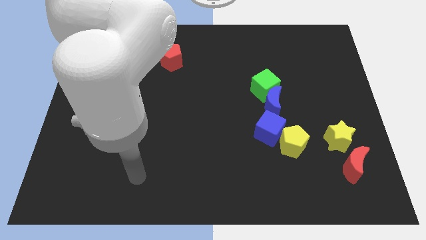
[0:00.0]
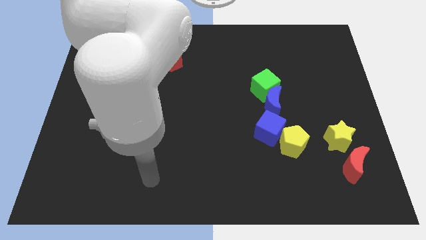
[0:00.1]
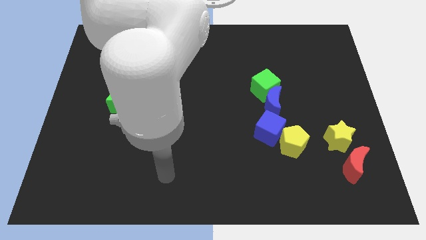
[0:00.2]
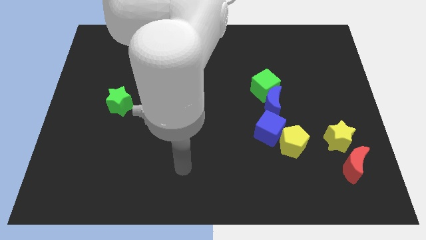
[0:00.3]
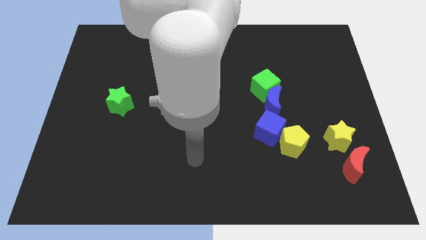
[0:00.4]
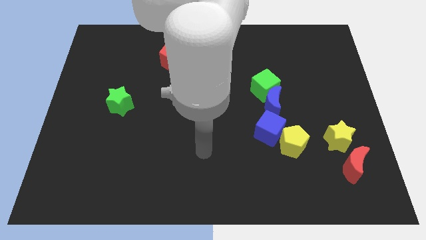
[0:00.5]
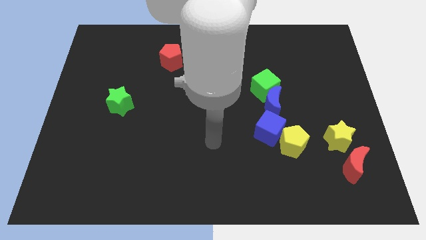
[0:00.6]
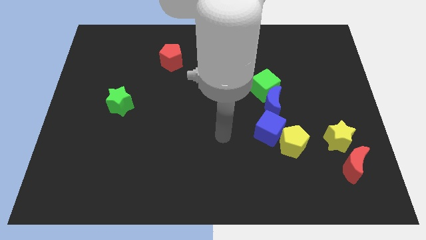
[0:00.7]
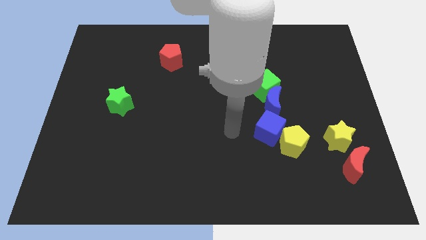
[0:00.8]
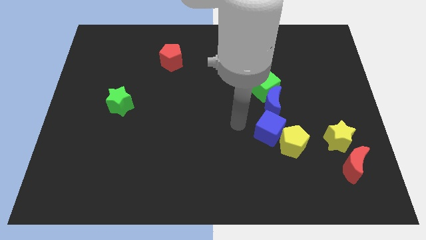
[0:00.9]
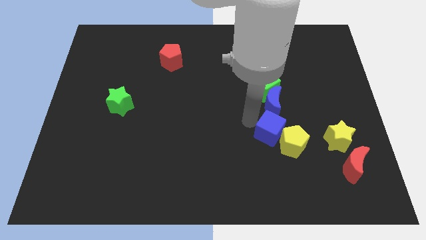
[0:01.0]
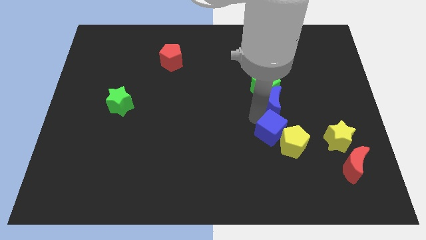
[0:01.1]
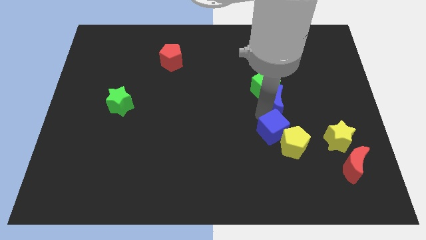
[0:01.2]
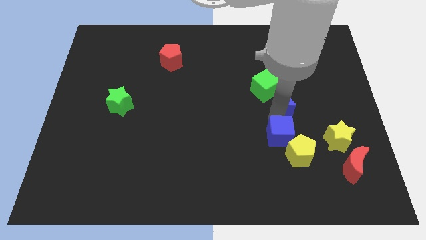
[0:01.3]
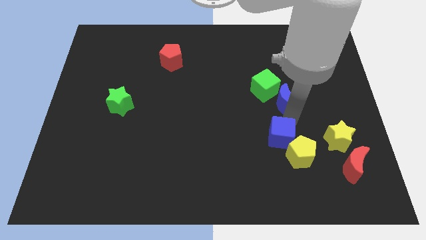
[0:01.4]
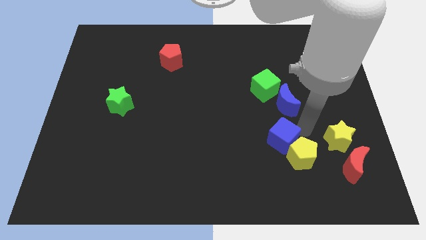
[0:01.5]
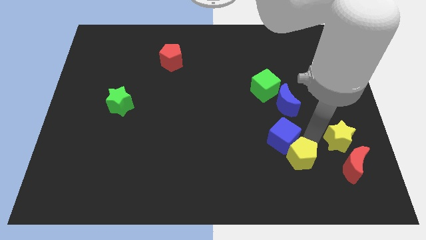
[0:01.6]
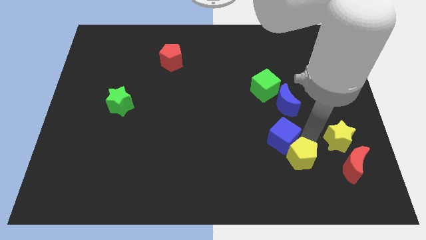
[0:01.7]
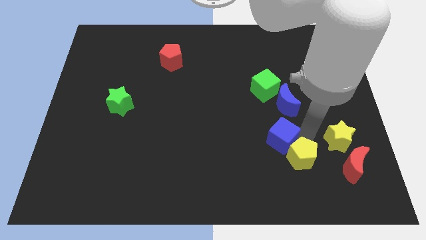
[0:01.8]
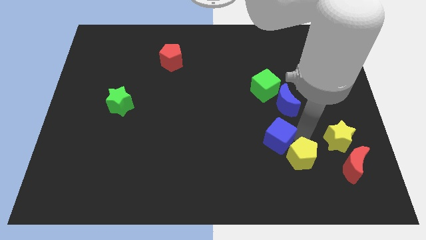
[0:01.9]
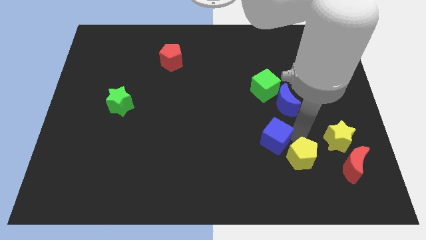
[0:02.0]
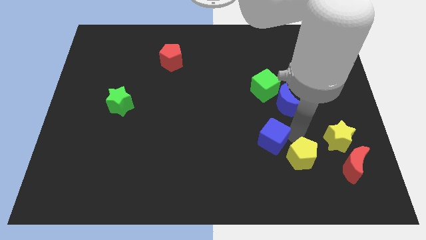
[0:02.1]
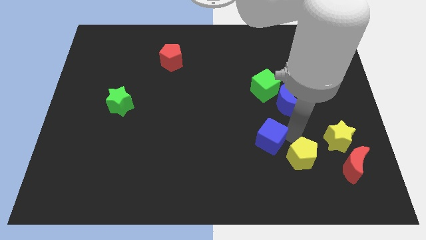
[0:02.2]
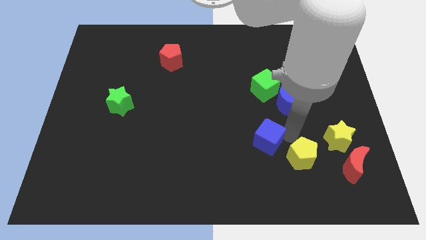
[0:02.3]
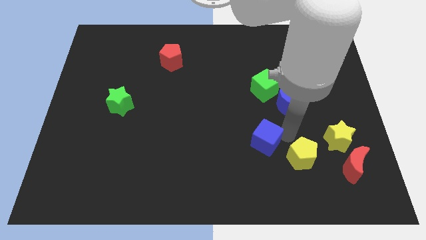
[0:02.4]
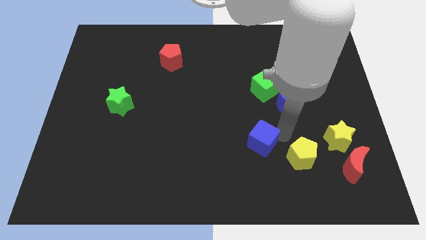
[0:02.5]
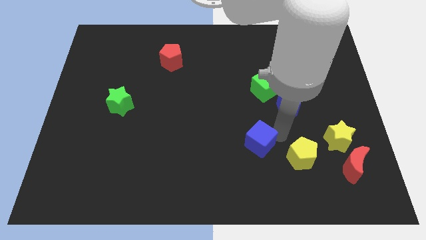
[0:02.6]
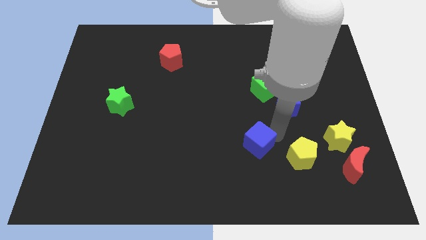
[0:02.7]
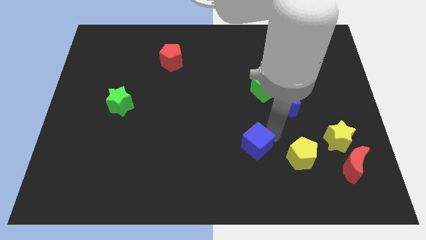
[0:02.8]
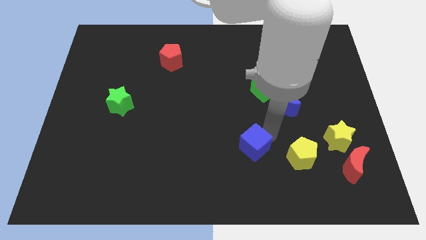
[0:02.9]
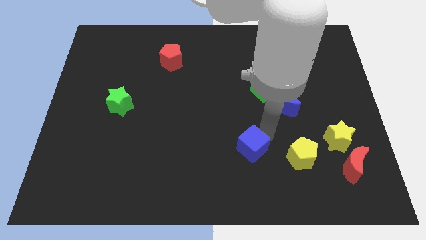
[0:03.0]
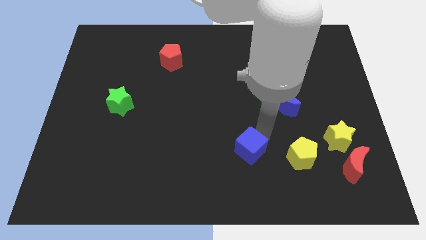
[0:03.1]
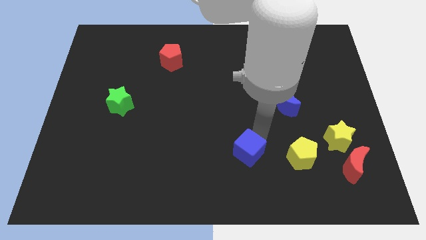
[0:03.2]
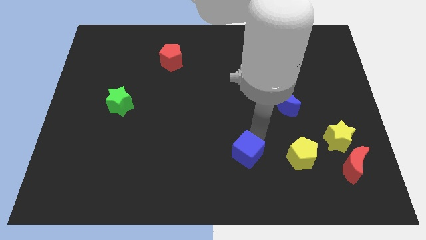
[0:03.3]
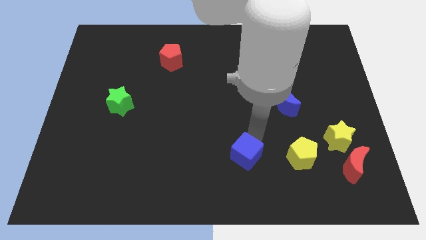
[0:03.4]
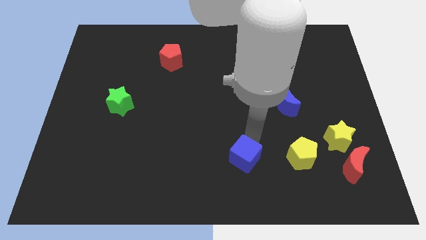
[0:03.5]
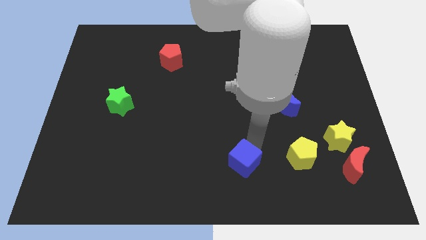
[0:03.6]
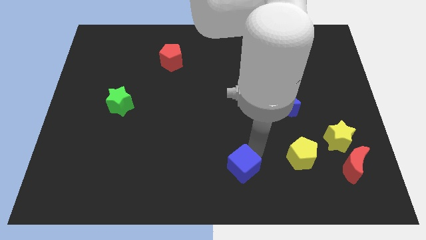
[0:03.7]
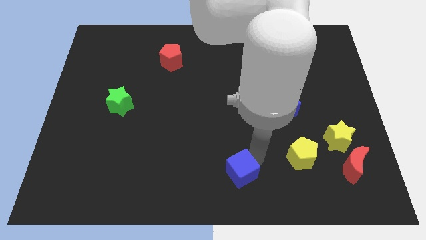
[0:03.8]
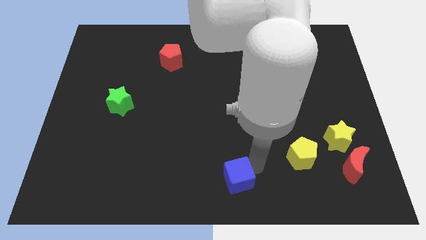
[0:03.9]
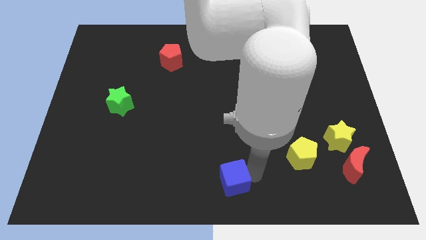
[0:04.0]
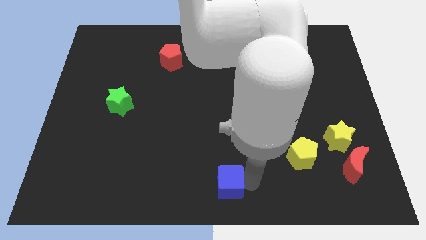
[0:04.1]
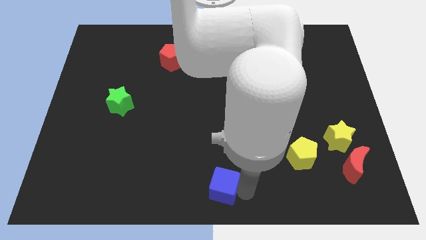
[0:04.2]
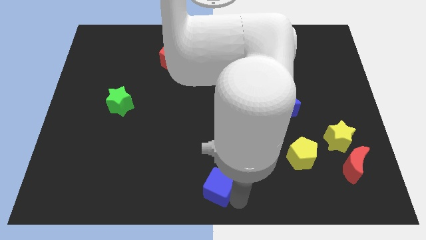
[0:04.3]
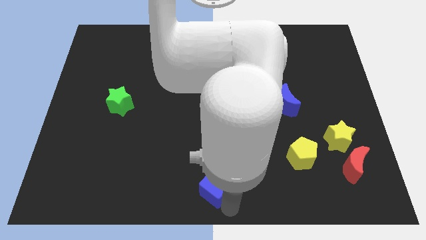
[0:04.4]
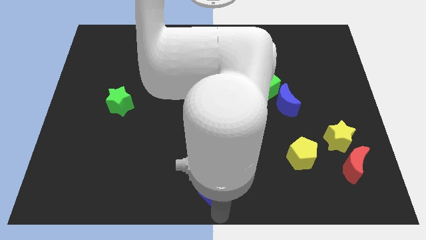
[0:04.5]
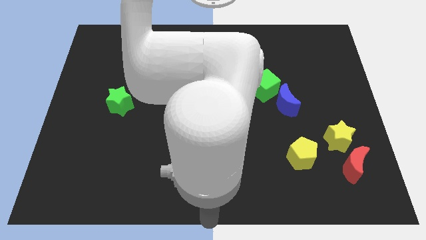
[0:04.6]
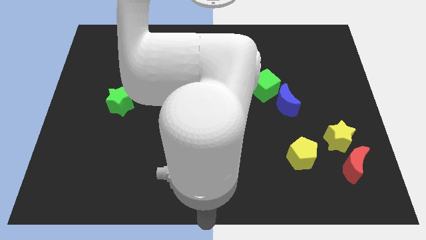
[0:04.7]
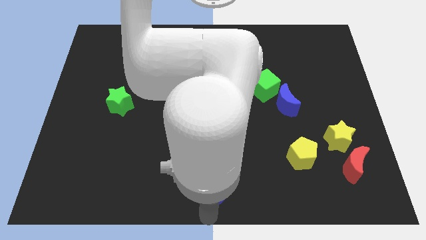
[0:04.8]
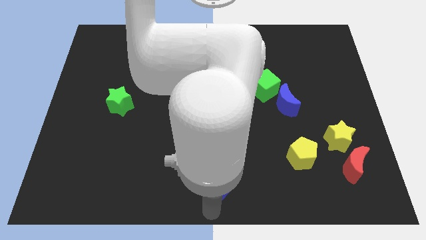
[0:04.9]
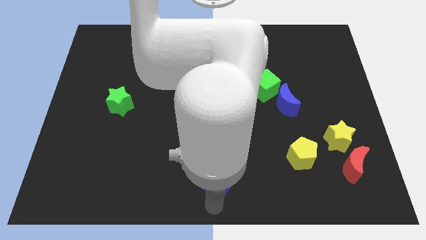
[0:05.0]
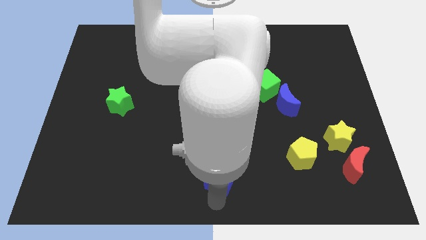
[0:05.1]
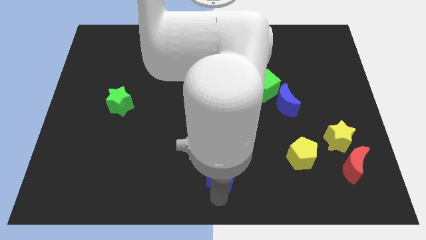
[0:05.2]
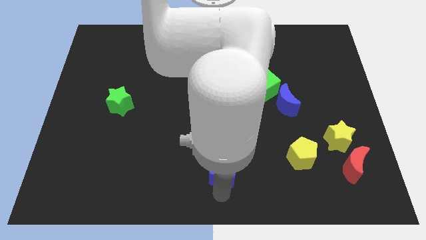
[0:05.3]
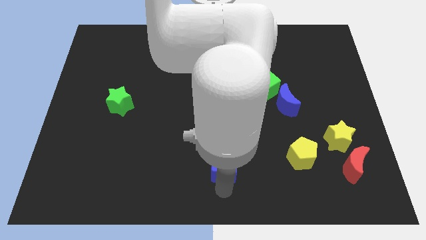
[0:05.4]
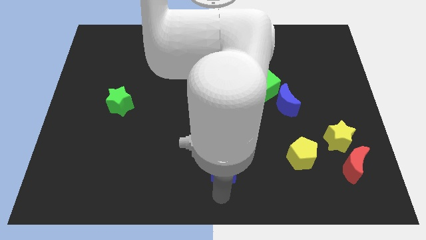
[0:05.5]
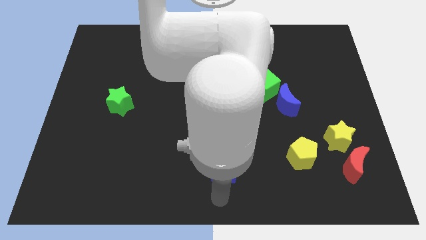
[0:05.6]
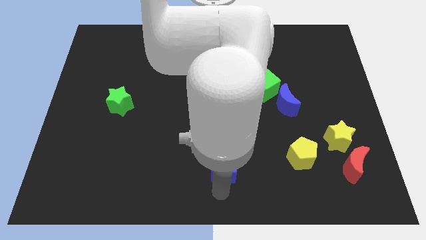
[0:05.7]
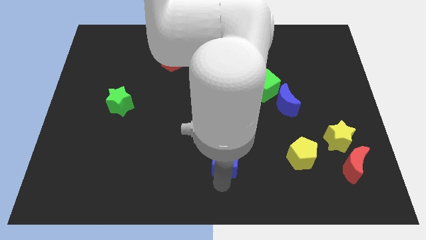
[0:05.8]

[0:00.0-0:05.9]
slightly push the blue cube to the left

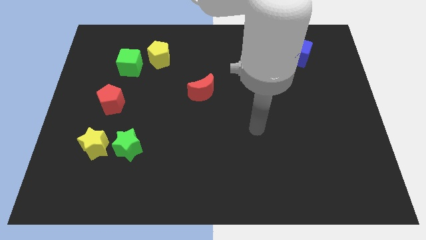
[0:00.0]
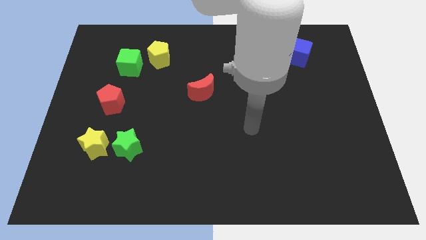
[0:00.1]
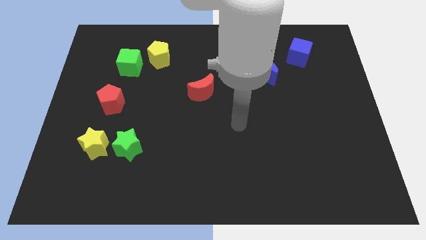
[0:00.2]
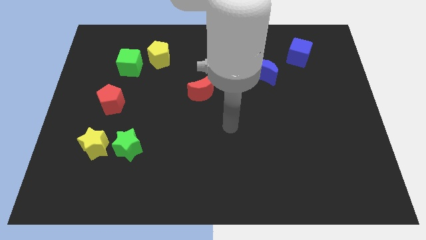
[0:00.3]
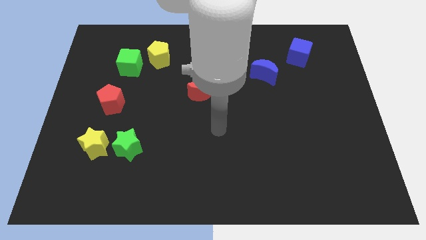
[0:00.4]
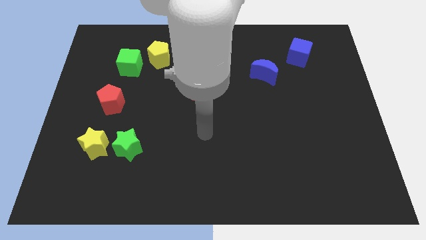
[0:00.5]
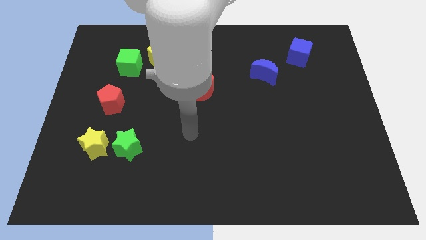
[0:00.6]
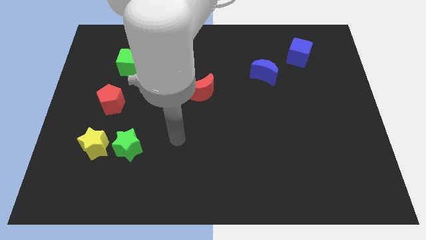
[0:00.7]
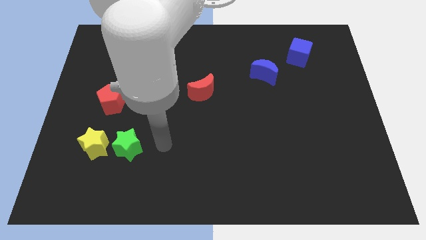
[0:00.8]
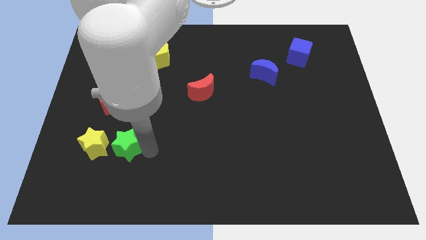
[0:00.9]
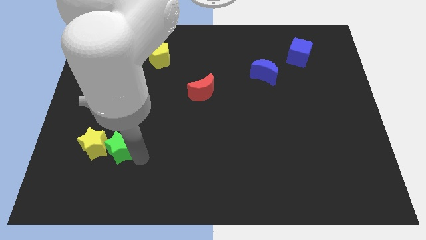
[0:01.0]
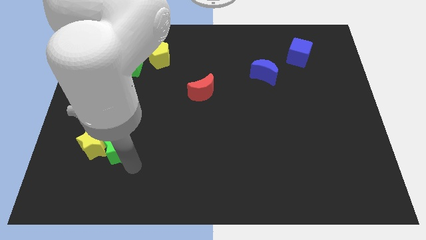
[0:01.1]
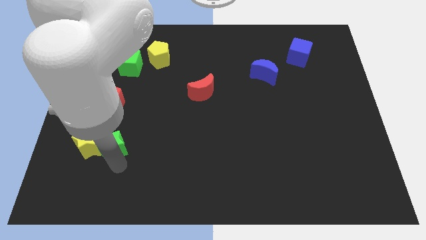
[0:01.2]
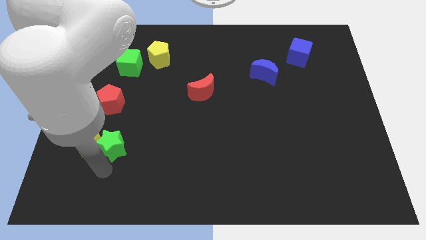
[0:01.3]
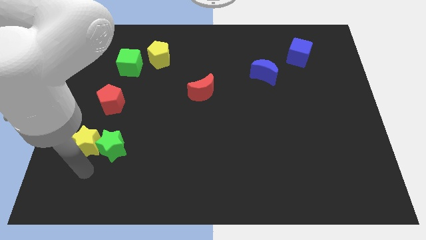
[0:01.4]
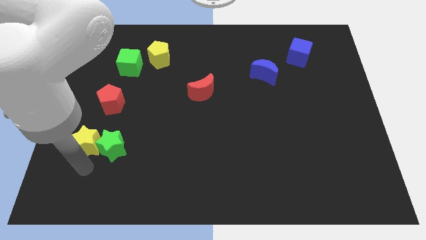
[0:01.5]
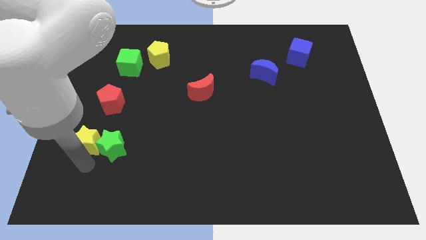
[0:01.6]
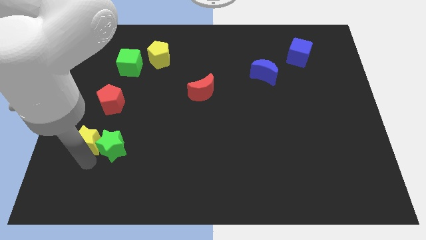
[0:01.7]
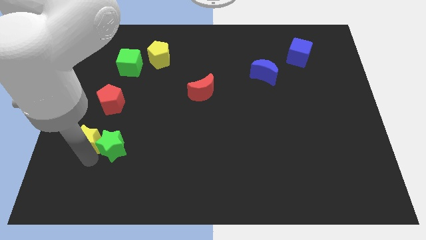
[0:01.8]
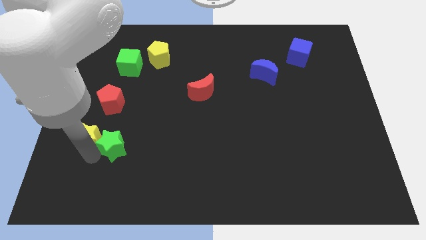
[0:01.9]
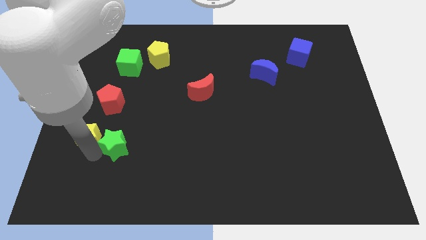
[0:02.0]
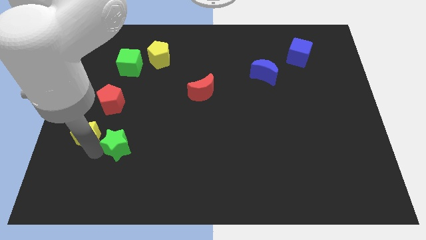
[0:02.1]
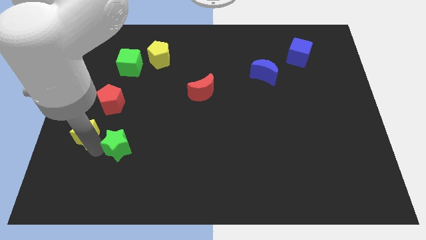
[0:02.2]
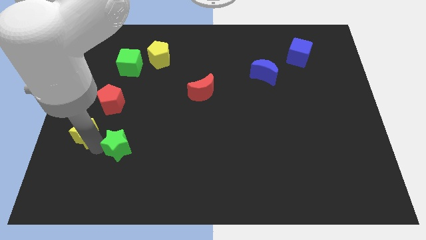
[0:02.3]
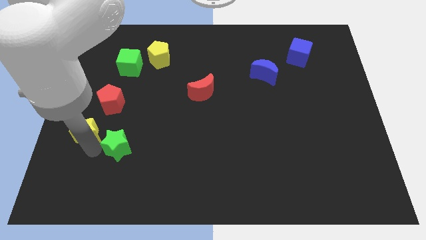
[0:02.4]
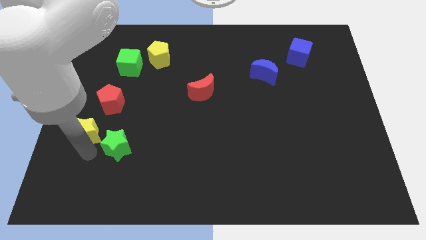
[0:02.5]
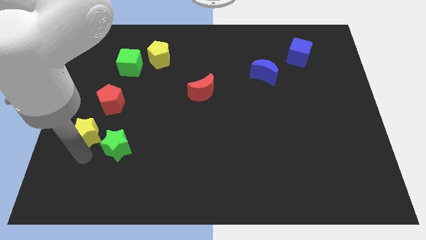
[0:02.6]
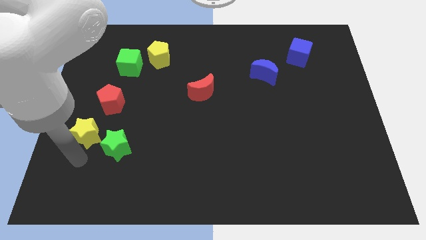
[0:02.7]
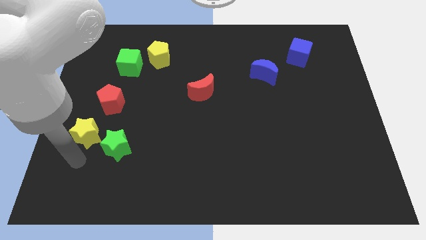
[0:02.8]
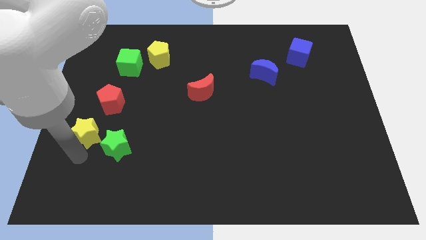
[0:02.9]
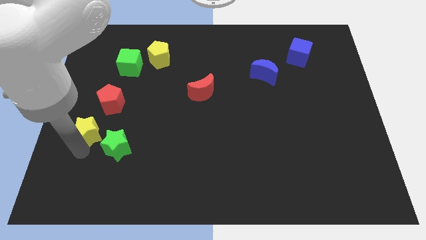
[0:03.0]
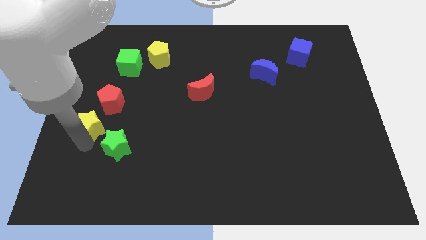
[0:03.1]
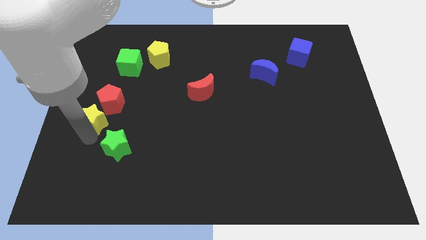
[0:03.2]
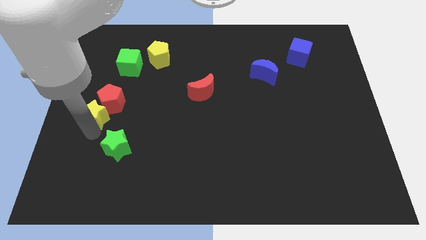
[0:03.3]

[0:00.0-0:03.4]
push the yellow star a little upwards
